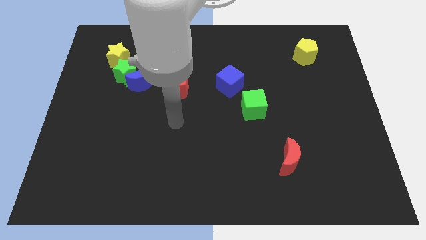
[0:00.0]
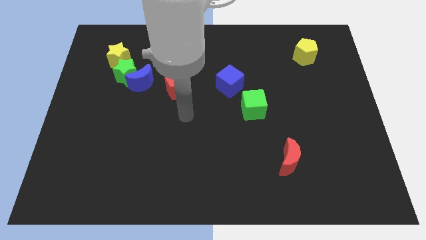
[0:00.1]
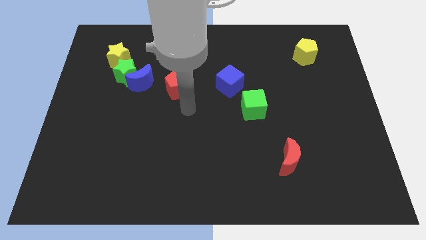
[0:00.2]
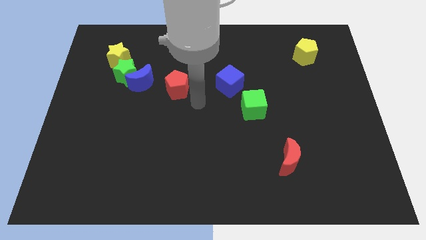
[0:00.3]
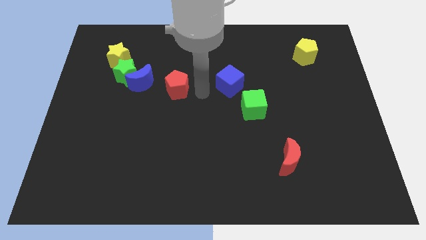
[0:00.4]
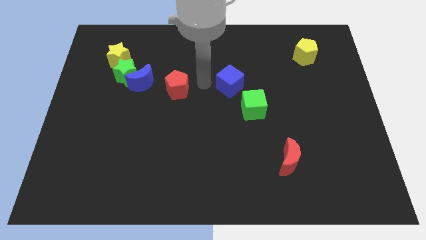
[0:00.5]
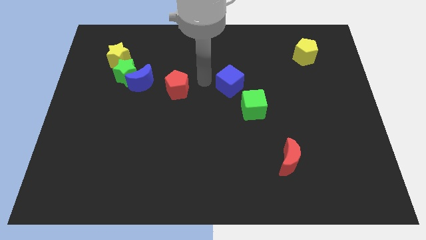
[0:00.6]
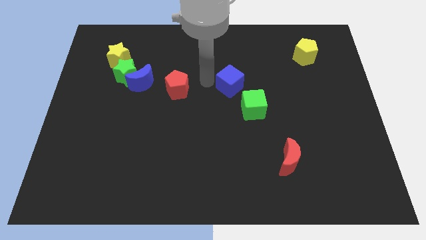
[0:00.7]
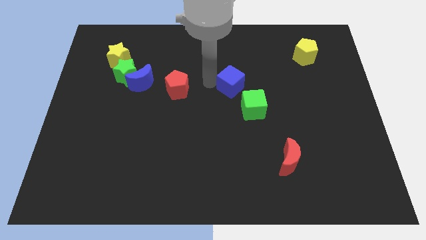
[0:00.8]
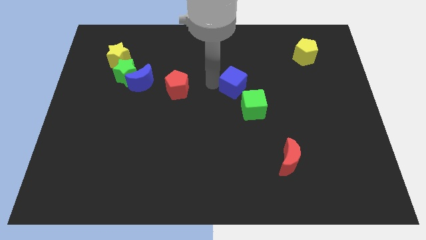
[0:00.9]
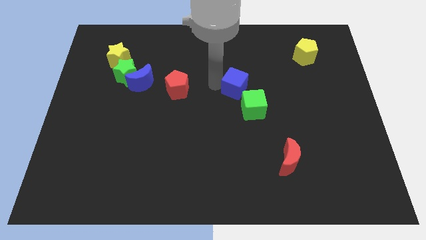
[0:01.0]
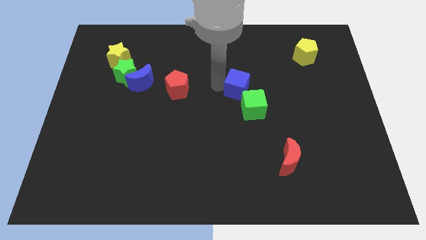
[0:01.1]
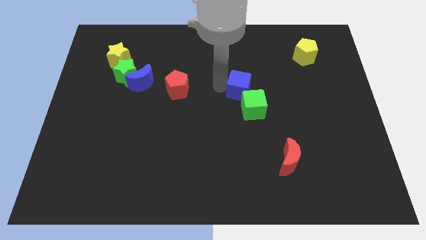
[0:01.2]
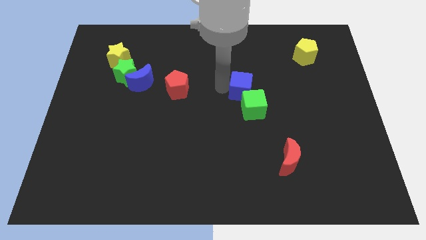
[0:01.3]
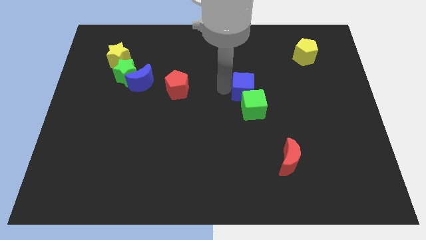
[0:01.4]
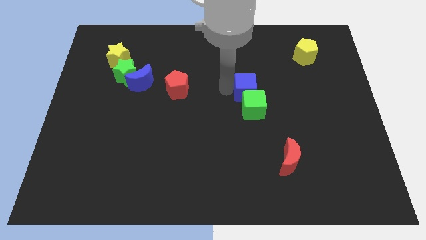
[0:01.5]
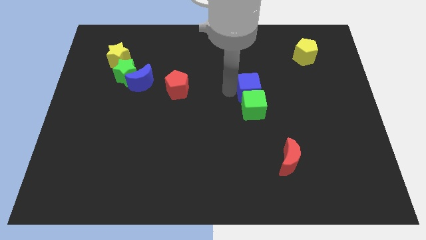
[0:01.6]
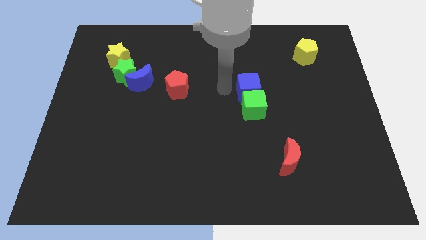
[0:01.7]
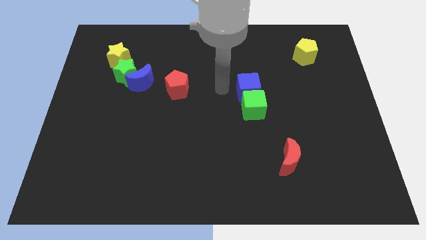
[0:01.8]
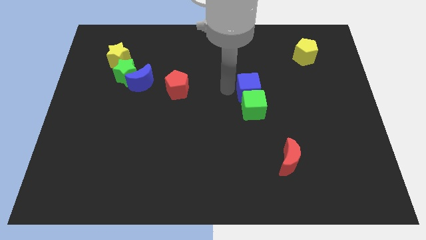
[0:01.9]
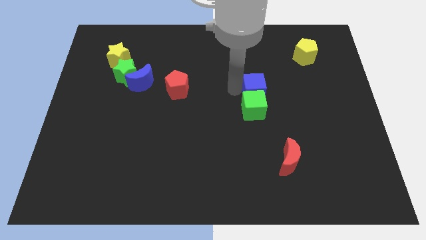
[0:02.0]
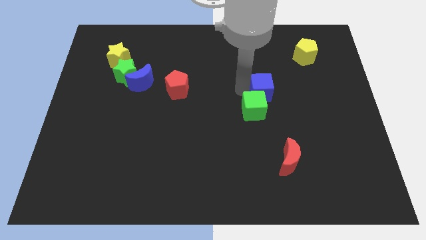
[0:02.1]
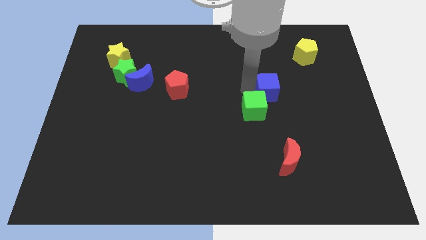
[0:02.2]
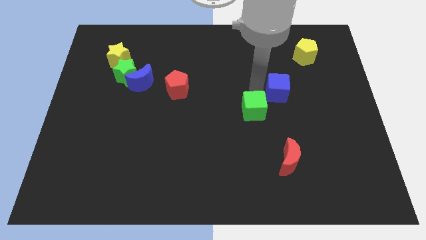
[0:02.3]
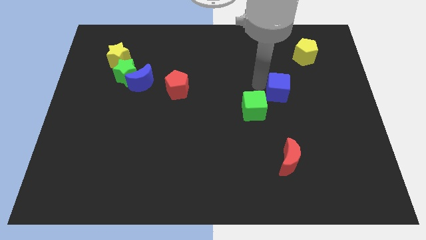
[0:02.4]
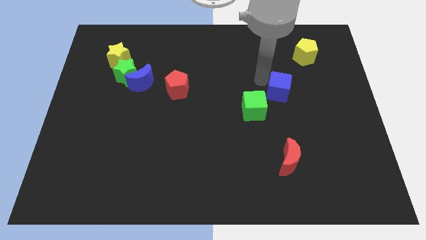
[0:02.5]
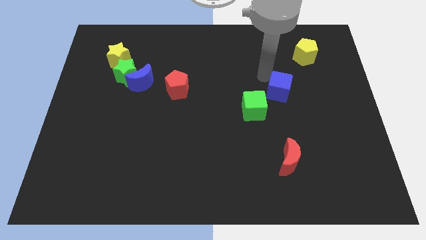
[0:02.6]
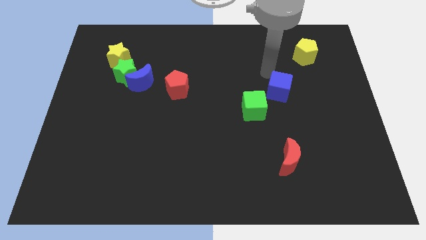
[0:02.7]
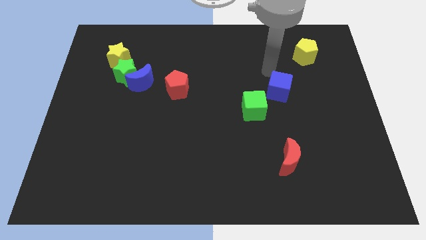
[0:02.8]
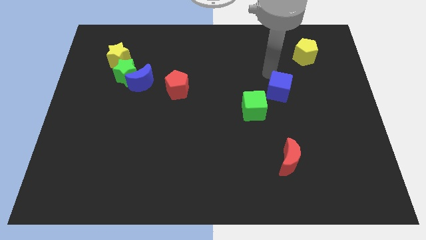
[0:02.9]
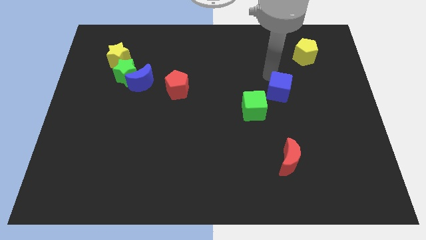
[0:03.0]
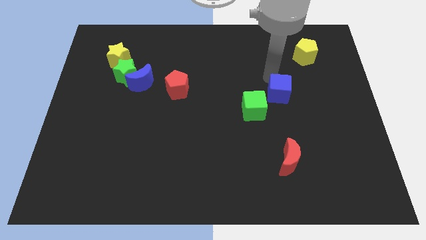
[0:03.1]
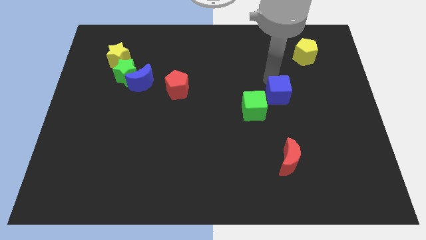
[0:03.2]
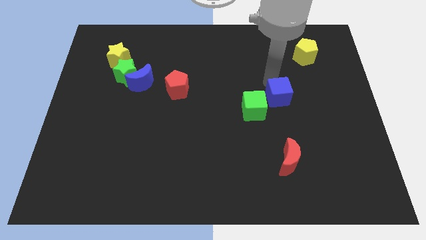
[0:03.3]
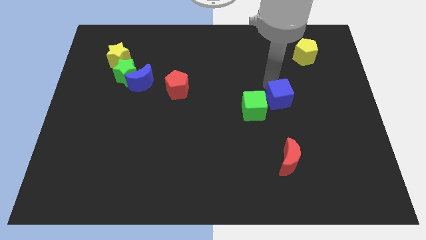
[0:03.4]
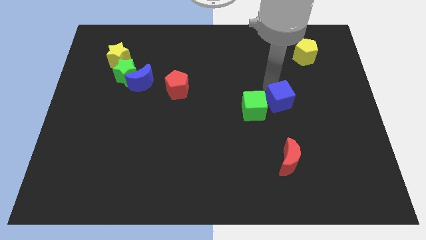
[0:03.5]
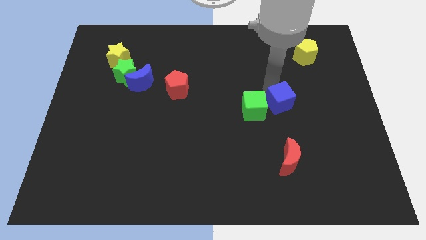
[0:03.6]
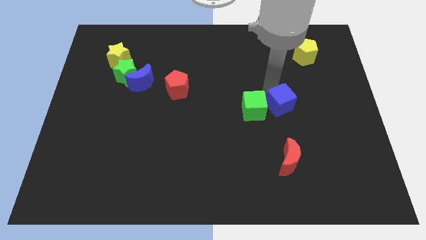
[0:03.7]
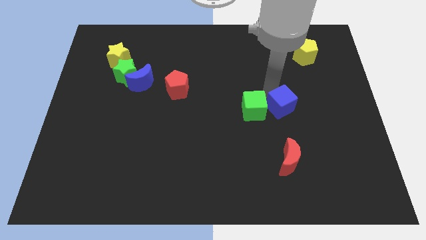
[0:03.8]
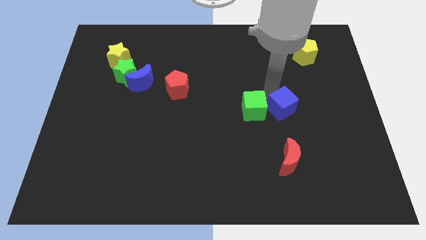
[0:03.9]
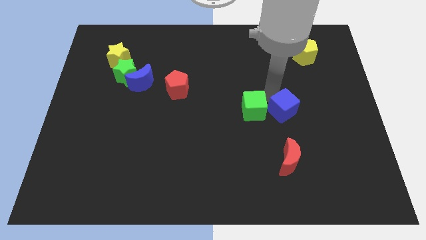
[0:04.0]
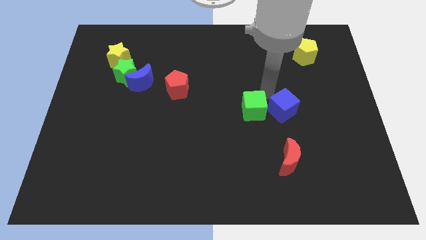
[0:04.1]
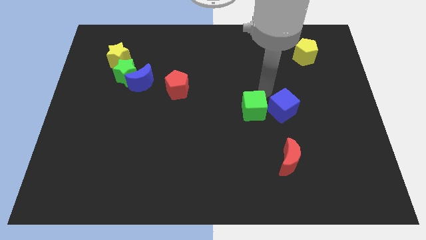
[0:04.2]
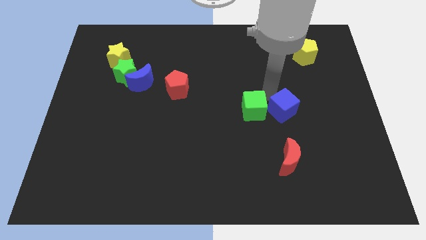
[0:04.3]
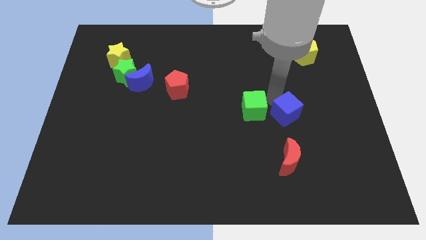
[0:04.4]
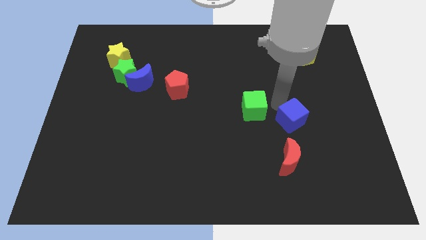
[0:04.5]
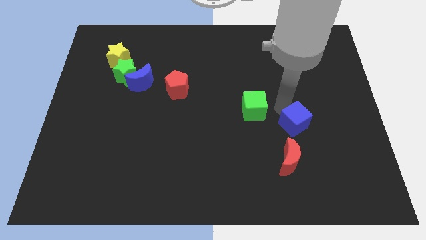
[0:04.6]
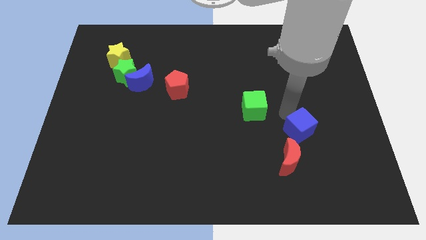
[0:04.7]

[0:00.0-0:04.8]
push the blue cube diagonally up and to the right of the red moon

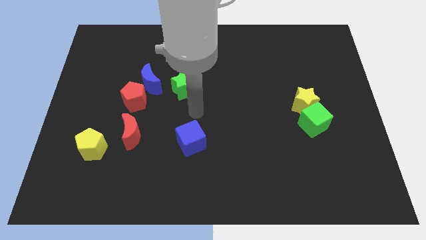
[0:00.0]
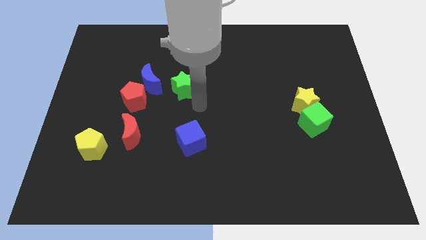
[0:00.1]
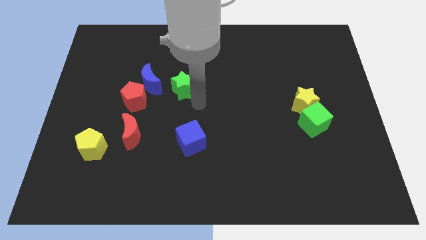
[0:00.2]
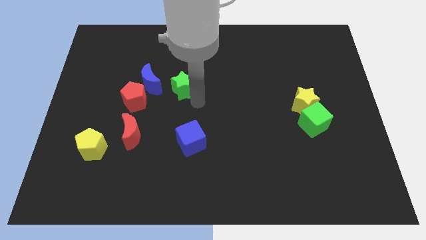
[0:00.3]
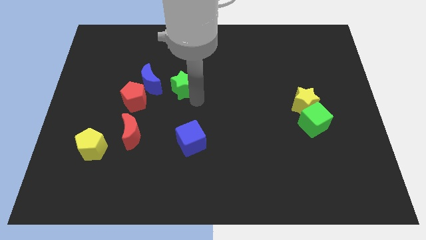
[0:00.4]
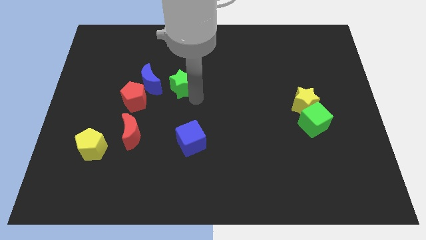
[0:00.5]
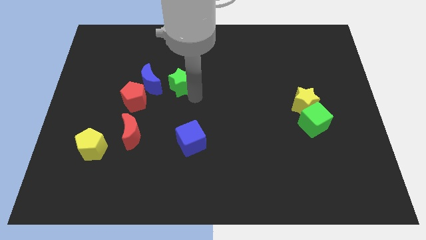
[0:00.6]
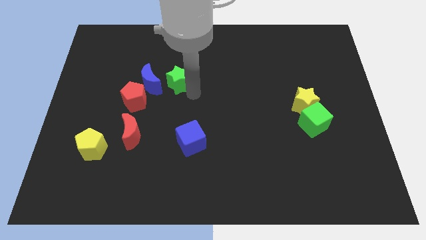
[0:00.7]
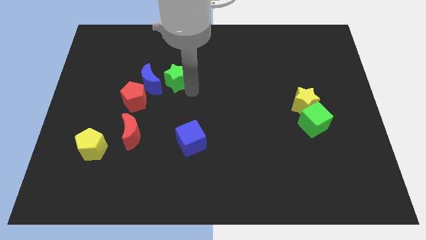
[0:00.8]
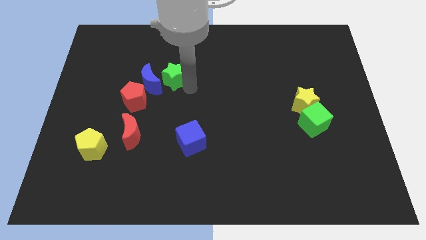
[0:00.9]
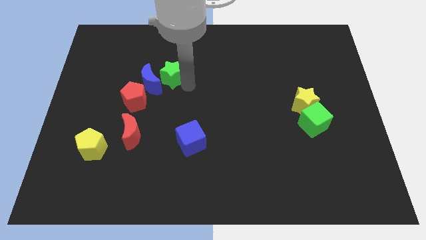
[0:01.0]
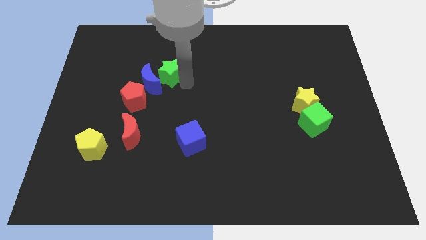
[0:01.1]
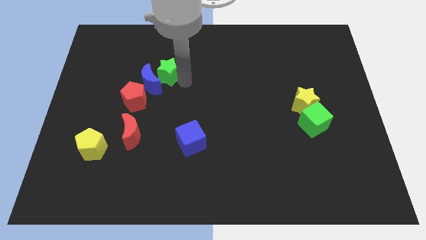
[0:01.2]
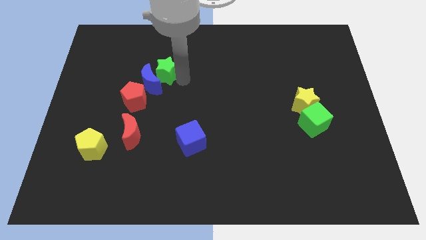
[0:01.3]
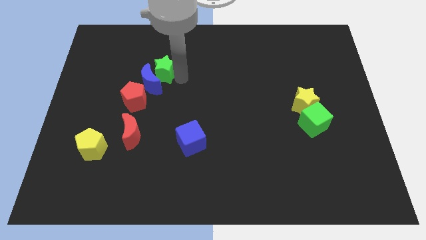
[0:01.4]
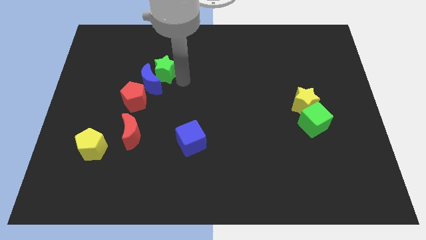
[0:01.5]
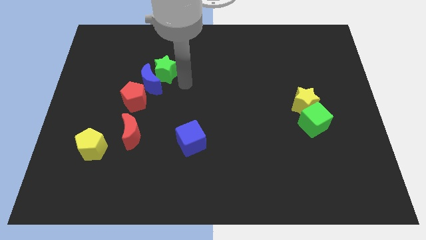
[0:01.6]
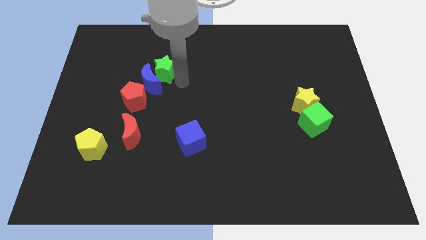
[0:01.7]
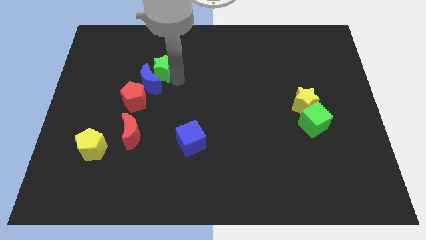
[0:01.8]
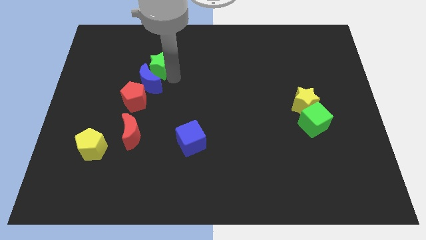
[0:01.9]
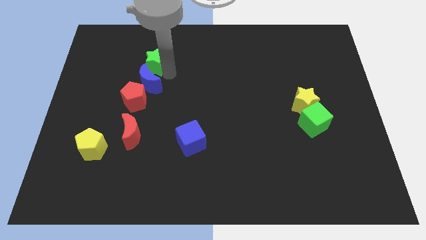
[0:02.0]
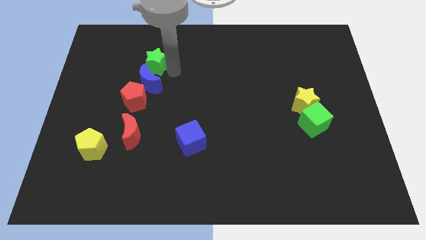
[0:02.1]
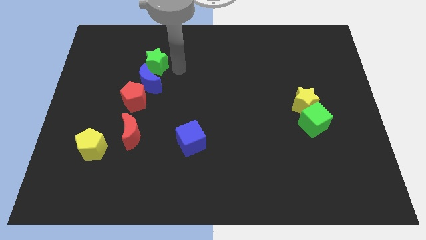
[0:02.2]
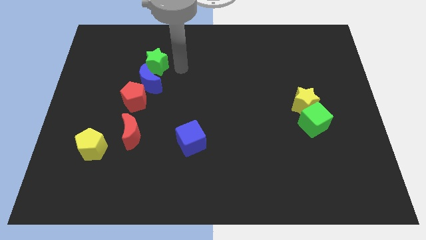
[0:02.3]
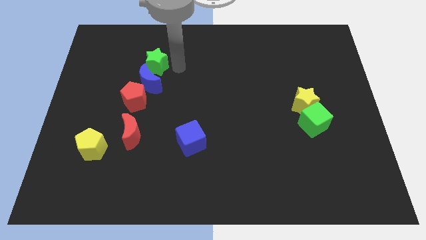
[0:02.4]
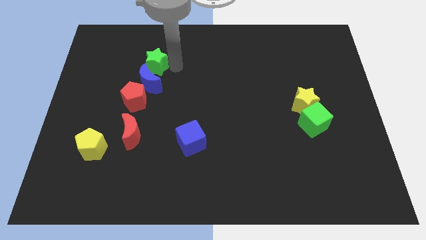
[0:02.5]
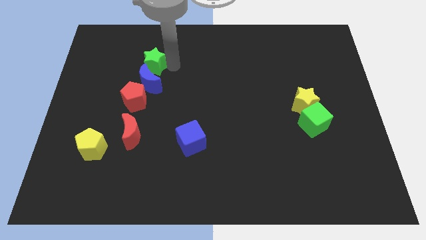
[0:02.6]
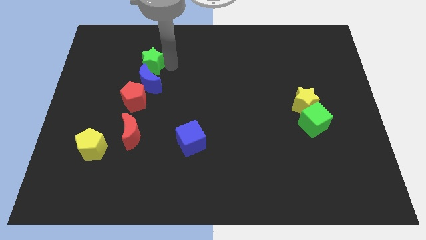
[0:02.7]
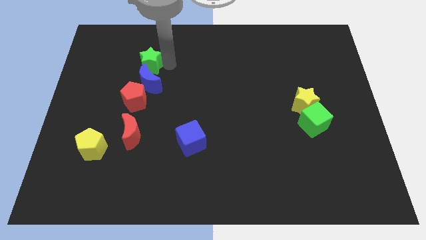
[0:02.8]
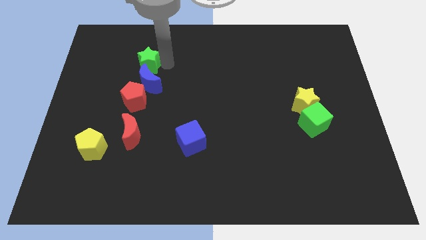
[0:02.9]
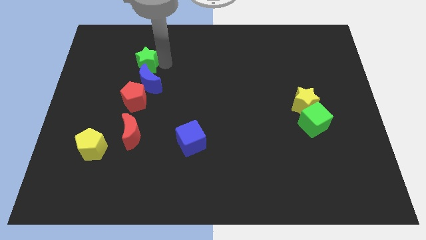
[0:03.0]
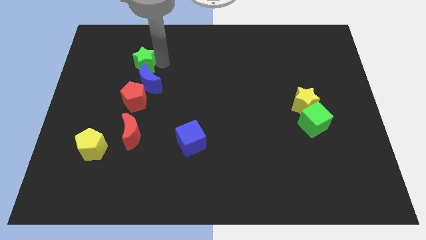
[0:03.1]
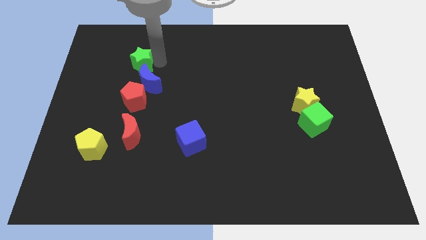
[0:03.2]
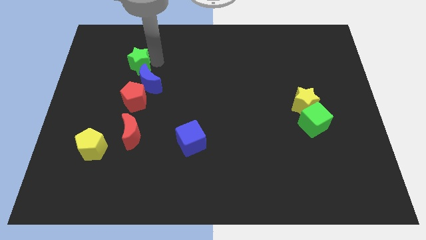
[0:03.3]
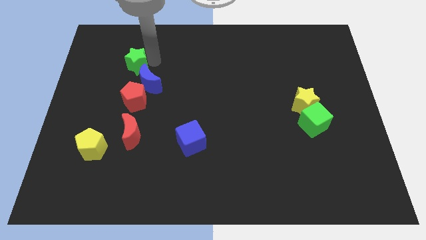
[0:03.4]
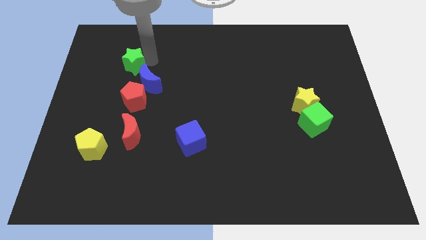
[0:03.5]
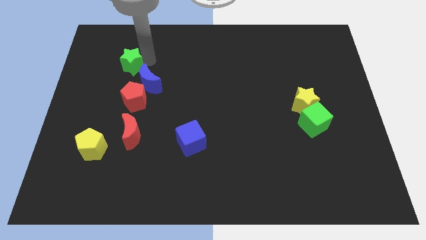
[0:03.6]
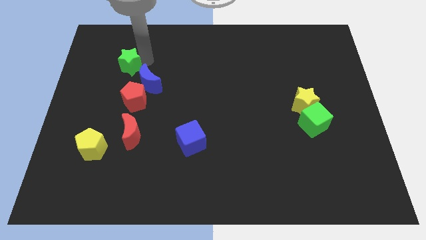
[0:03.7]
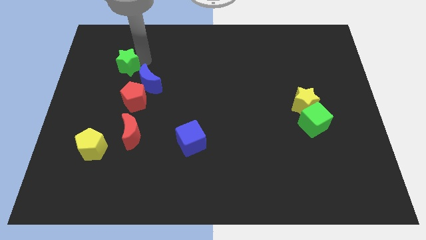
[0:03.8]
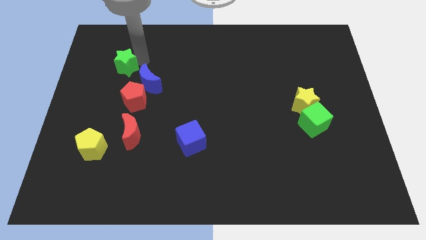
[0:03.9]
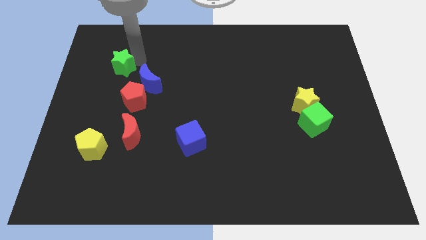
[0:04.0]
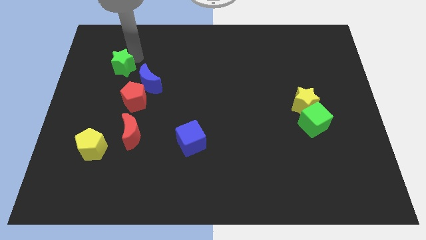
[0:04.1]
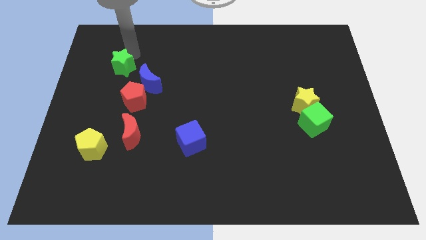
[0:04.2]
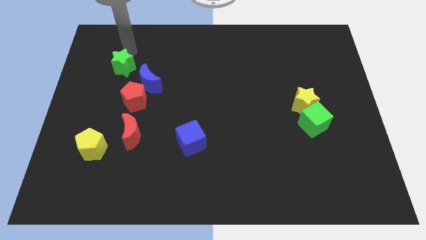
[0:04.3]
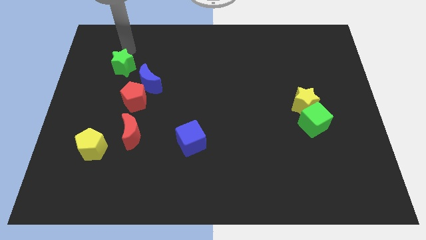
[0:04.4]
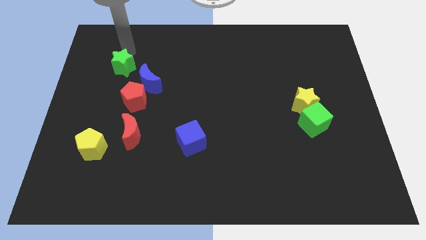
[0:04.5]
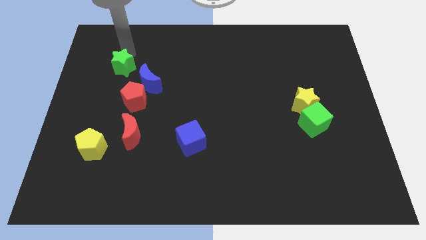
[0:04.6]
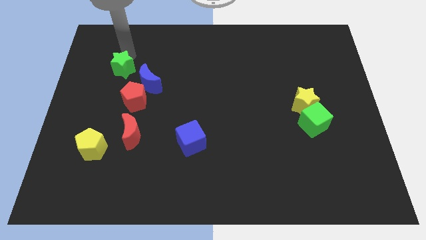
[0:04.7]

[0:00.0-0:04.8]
move the green star to the top left side of the red pentagon
